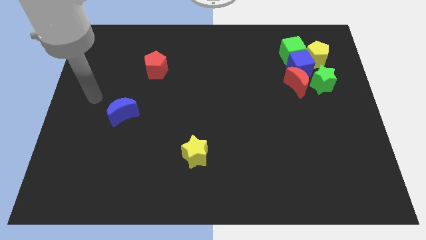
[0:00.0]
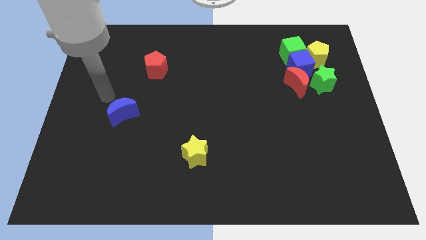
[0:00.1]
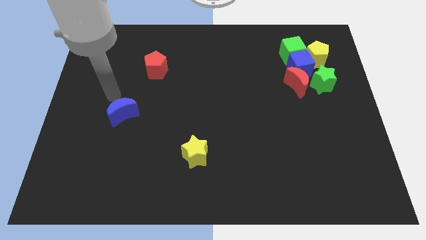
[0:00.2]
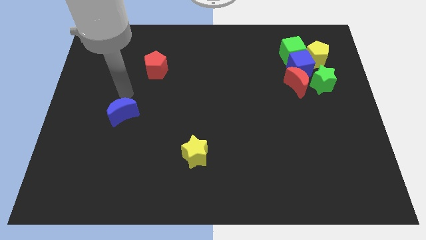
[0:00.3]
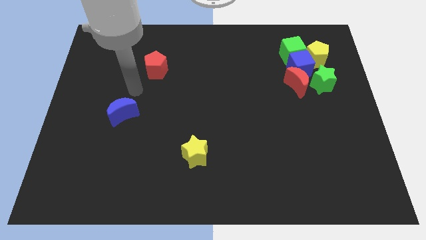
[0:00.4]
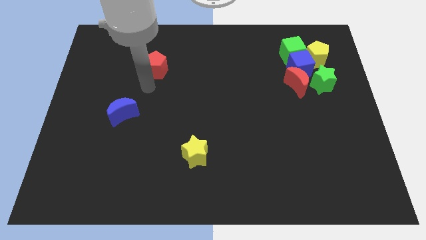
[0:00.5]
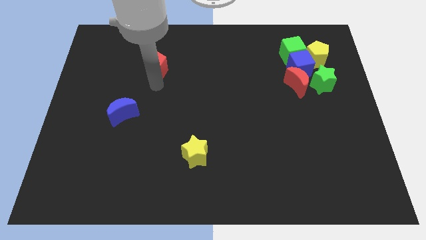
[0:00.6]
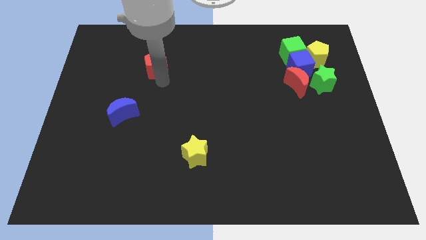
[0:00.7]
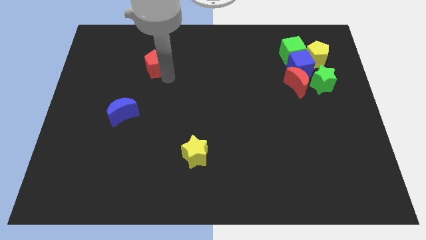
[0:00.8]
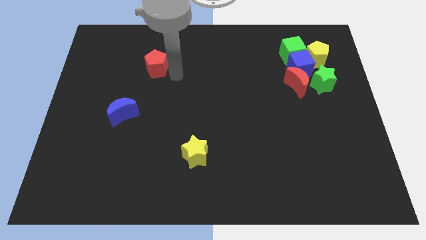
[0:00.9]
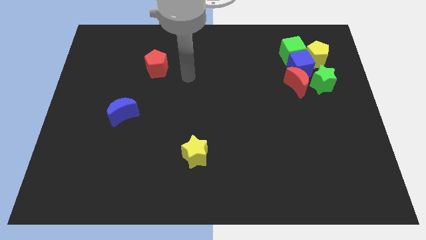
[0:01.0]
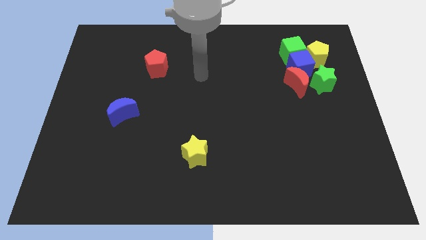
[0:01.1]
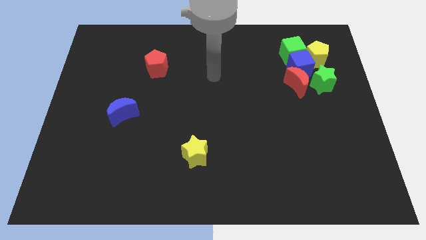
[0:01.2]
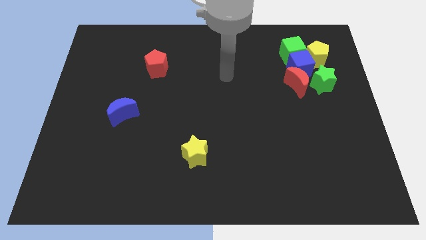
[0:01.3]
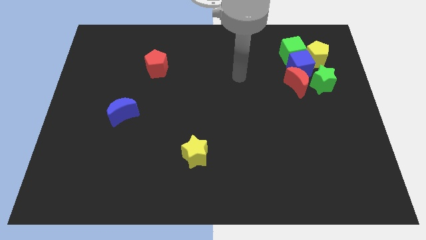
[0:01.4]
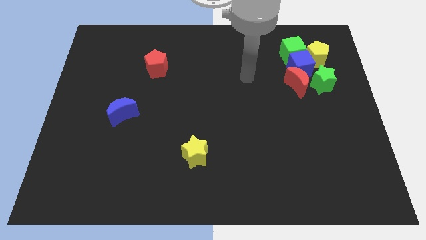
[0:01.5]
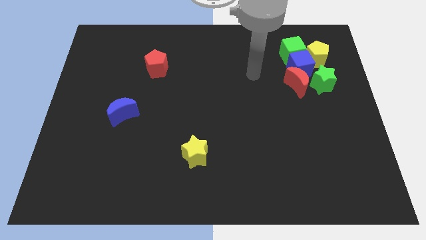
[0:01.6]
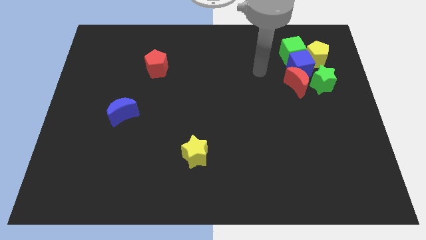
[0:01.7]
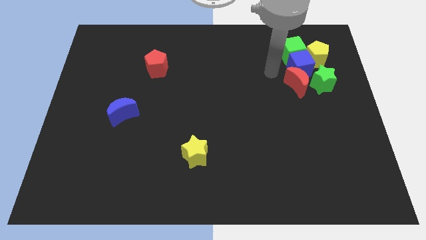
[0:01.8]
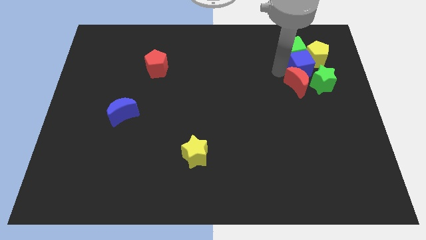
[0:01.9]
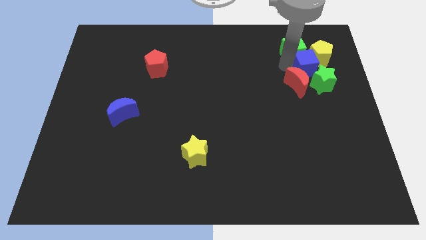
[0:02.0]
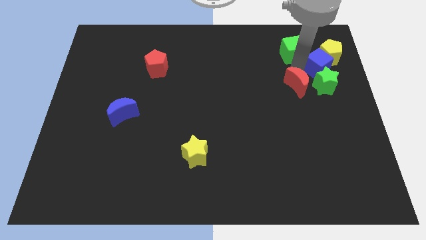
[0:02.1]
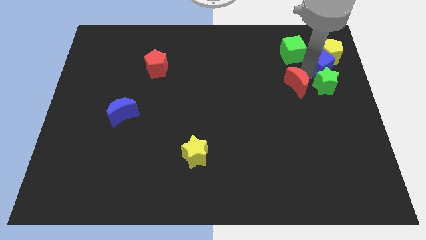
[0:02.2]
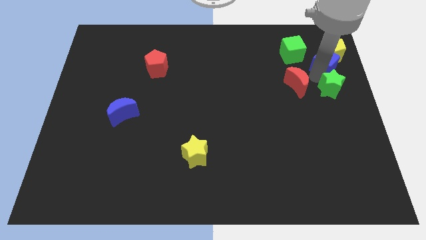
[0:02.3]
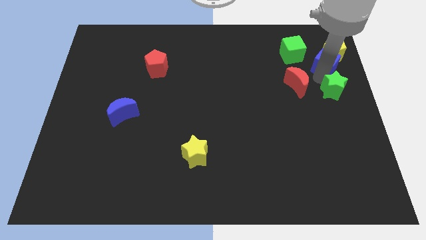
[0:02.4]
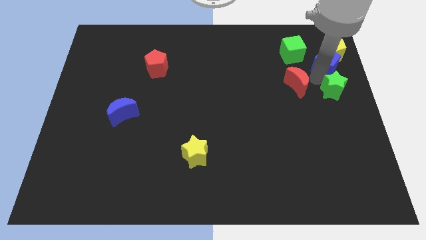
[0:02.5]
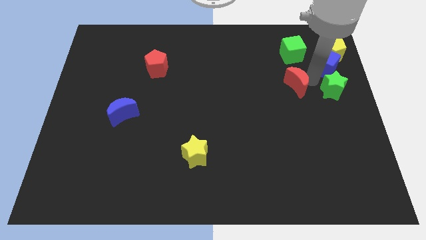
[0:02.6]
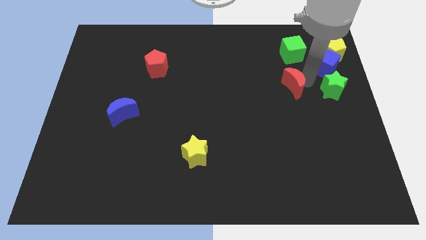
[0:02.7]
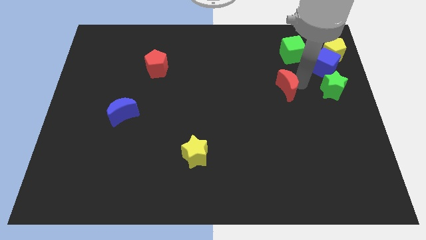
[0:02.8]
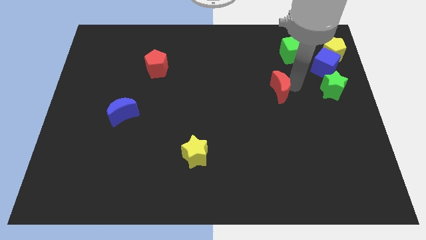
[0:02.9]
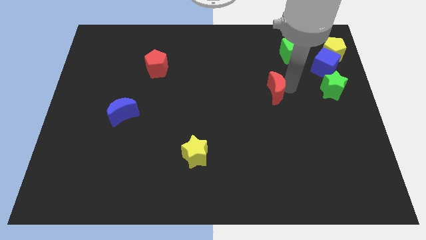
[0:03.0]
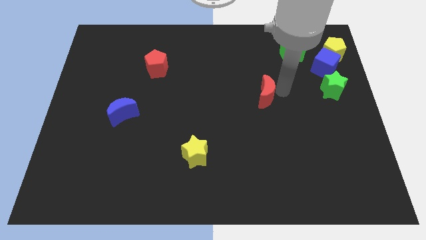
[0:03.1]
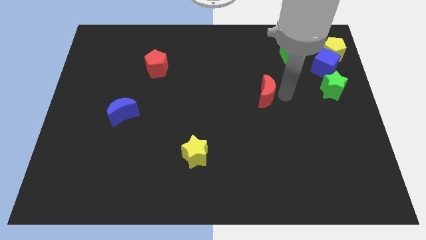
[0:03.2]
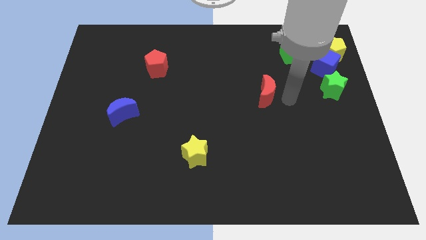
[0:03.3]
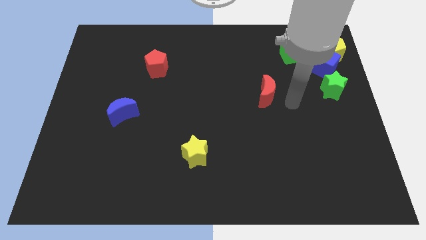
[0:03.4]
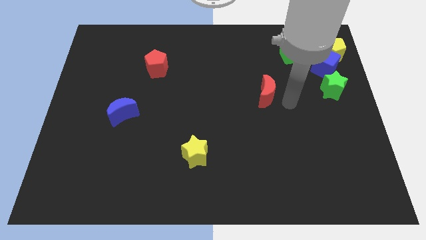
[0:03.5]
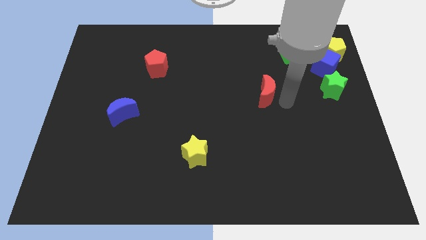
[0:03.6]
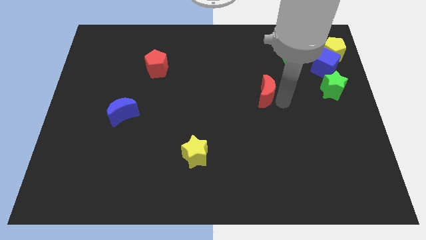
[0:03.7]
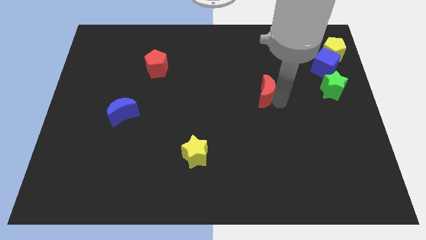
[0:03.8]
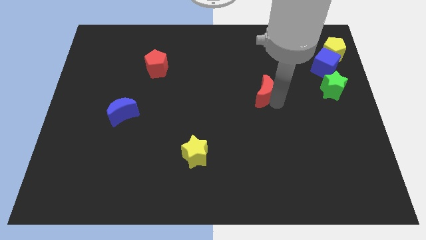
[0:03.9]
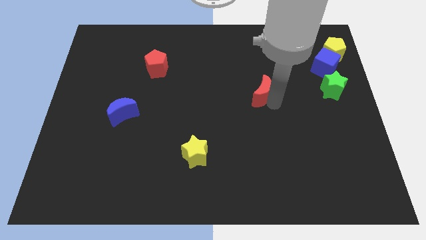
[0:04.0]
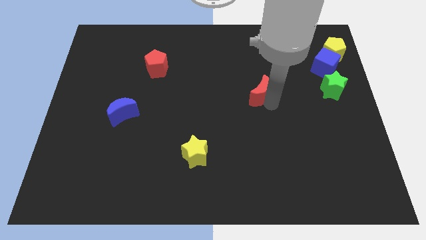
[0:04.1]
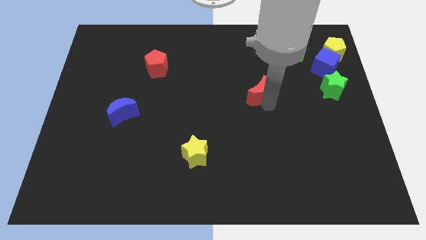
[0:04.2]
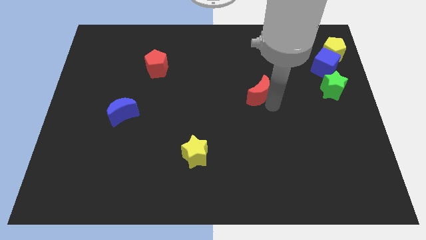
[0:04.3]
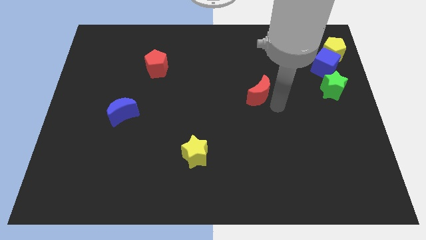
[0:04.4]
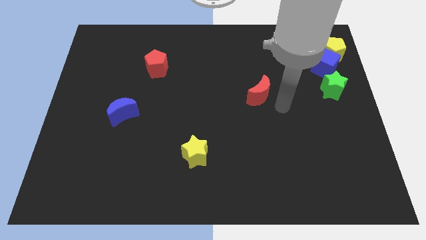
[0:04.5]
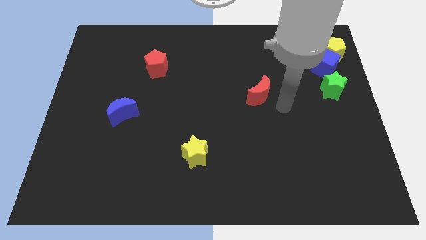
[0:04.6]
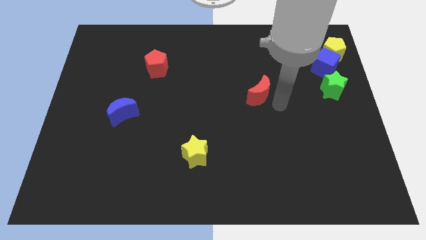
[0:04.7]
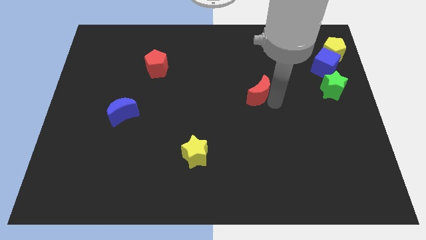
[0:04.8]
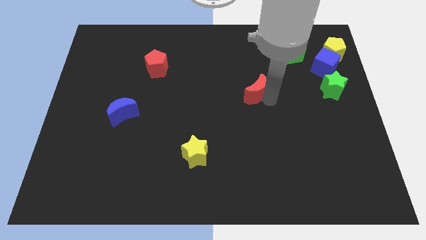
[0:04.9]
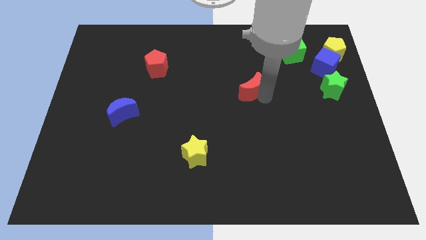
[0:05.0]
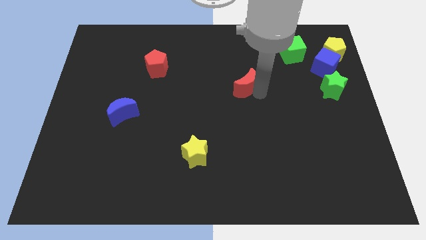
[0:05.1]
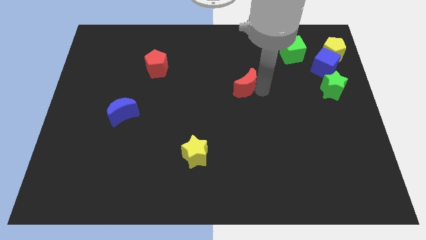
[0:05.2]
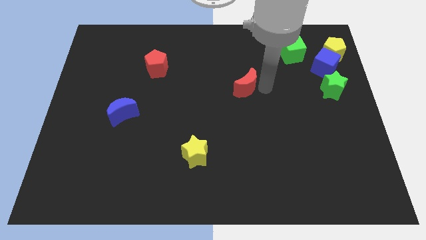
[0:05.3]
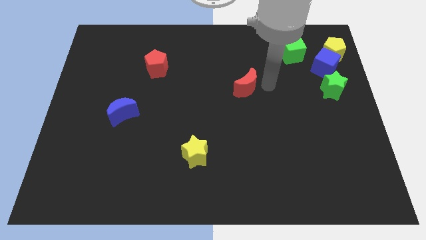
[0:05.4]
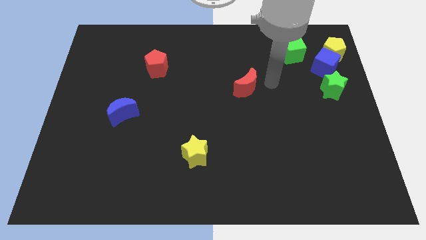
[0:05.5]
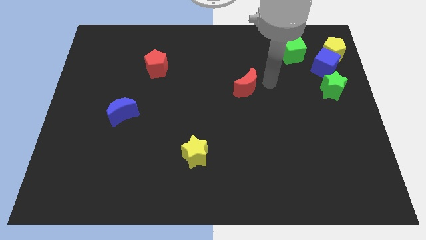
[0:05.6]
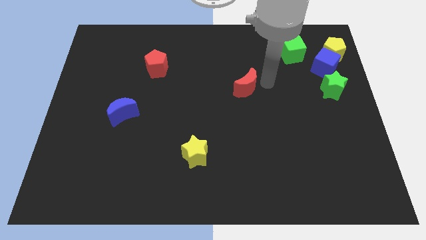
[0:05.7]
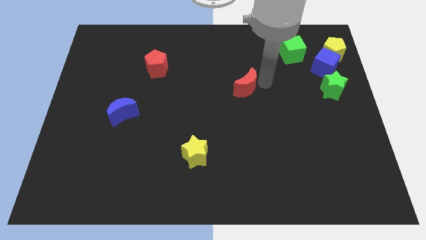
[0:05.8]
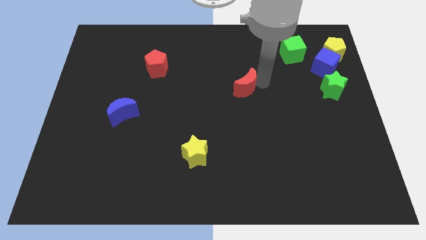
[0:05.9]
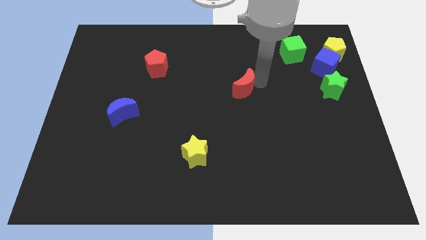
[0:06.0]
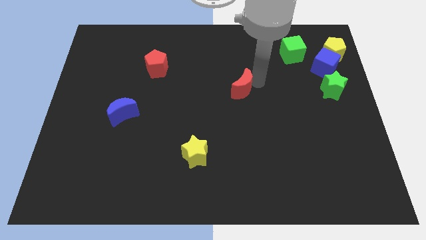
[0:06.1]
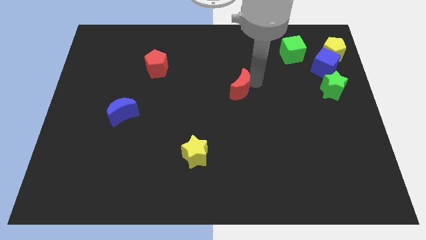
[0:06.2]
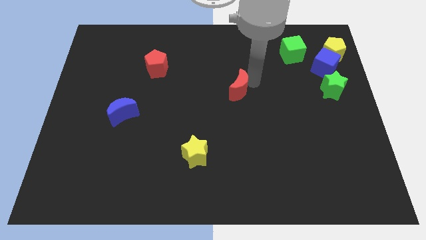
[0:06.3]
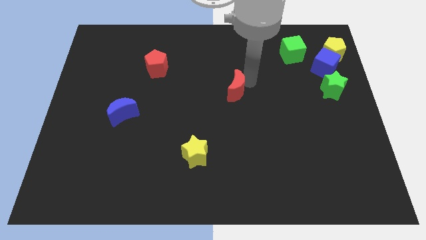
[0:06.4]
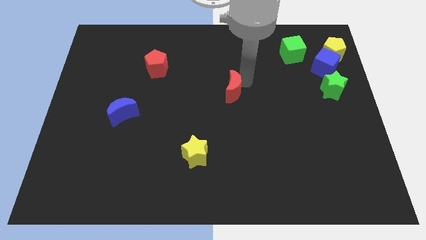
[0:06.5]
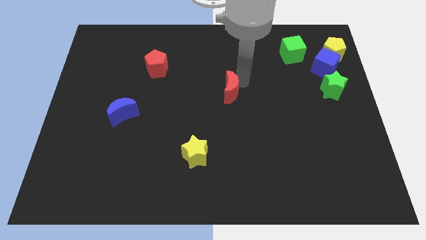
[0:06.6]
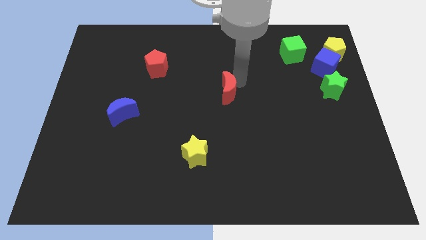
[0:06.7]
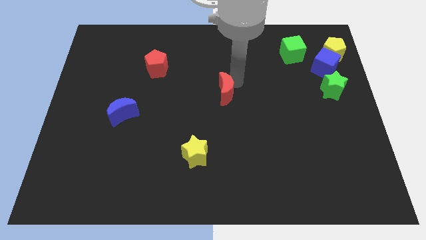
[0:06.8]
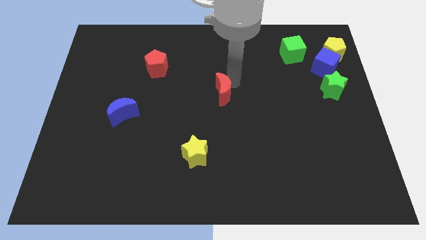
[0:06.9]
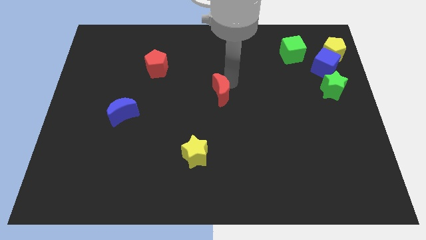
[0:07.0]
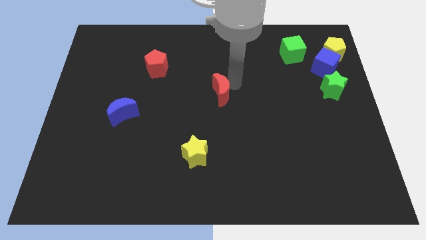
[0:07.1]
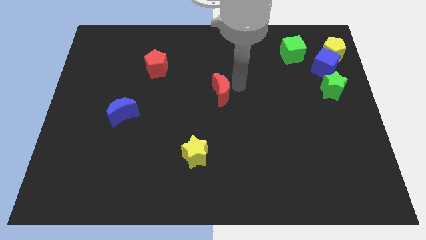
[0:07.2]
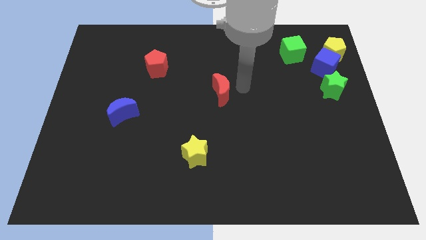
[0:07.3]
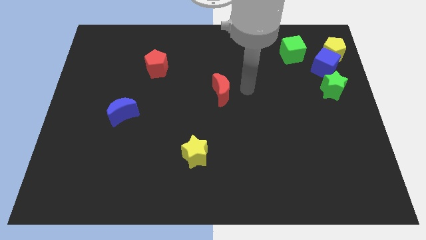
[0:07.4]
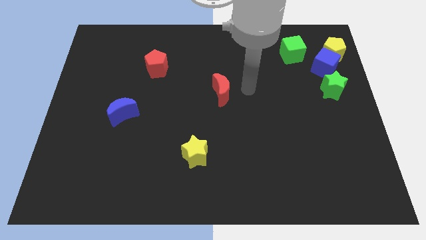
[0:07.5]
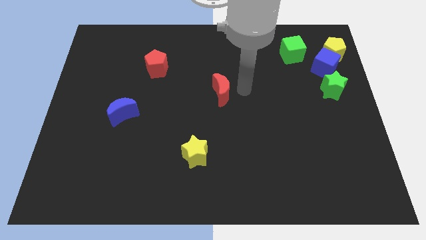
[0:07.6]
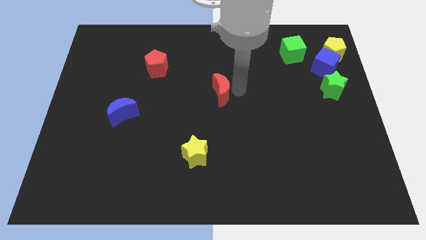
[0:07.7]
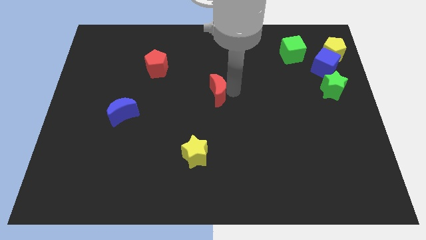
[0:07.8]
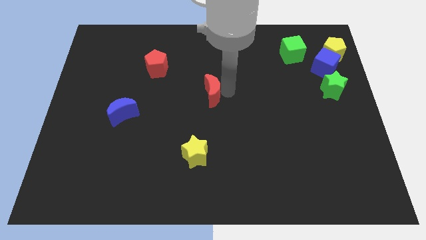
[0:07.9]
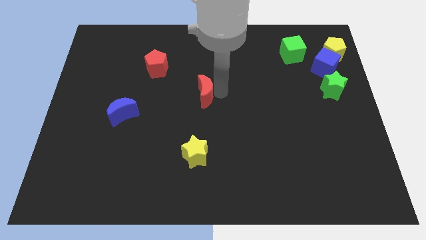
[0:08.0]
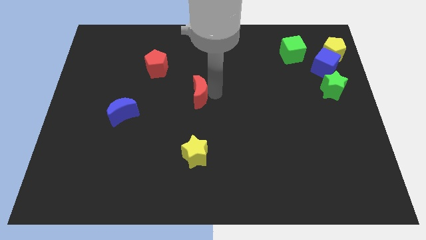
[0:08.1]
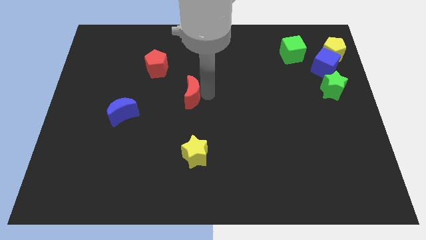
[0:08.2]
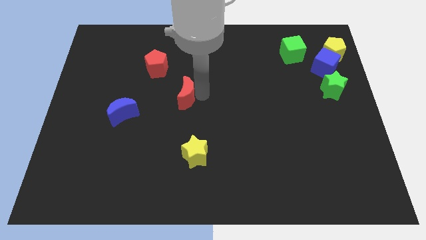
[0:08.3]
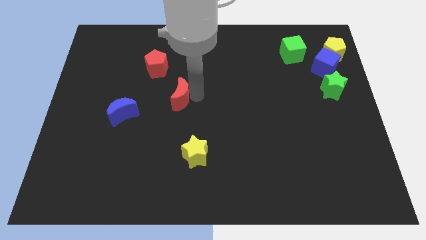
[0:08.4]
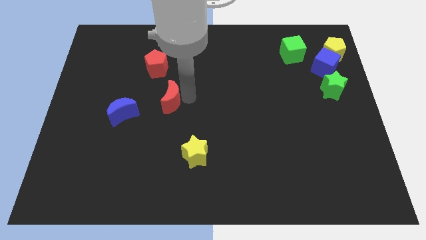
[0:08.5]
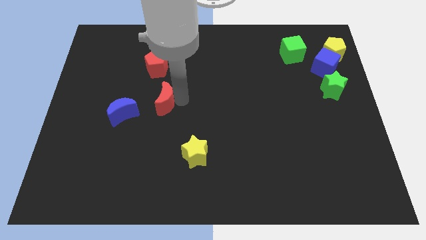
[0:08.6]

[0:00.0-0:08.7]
move the red moon to the top right side of the blue moon
